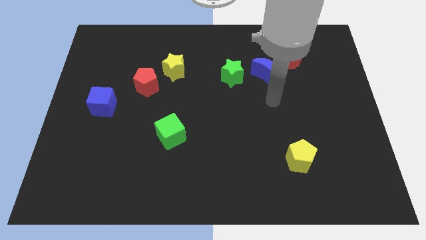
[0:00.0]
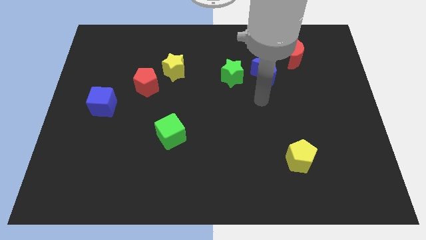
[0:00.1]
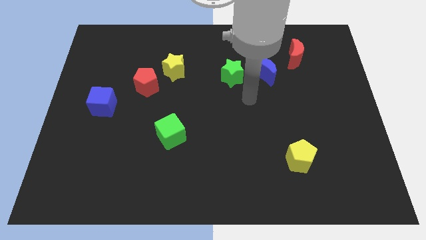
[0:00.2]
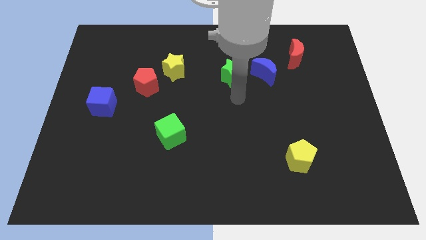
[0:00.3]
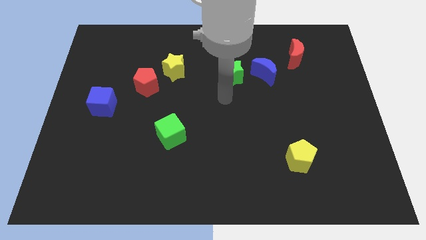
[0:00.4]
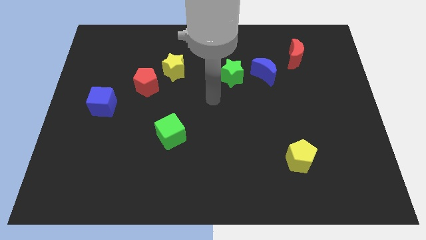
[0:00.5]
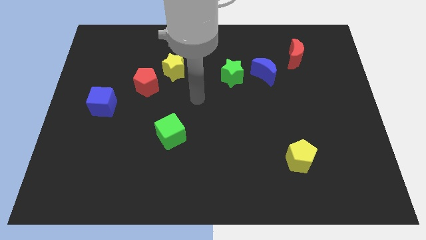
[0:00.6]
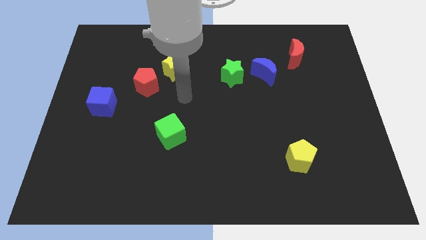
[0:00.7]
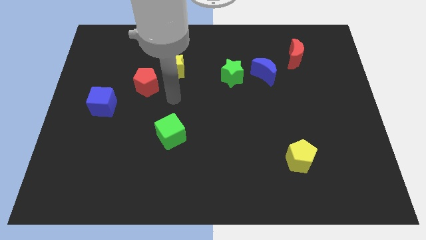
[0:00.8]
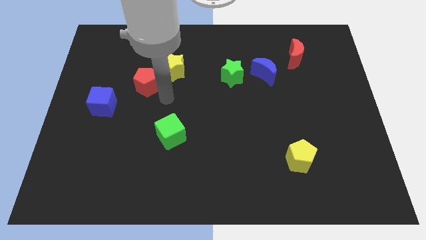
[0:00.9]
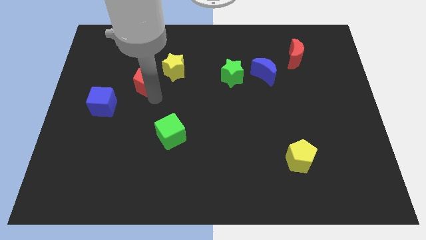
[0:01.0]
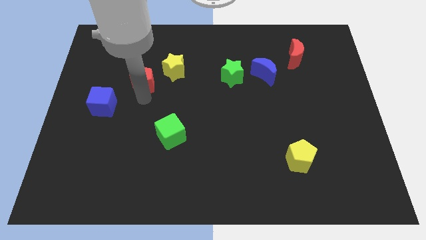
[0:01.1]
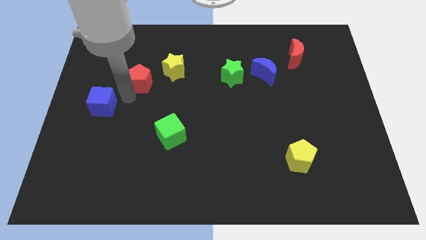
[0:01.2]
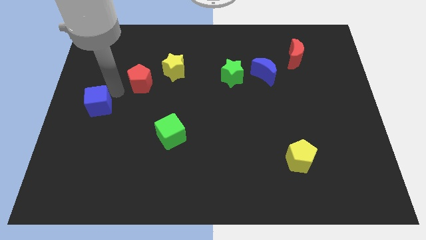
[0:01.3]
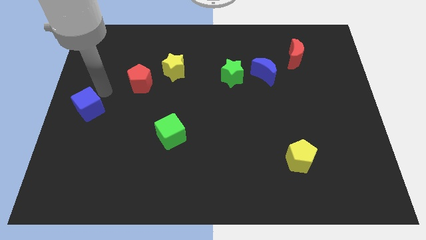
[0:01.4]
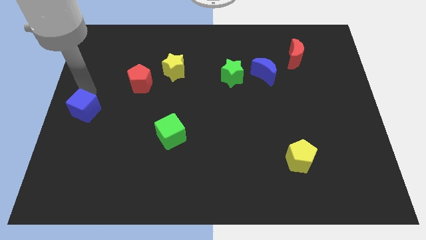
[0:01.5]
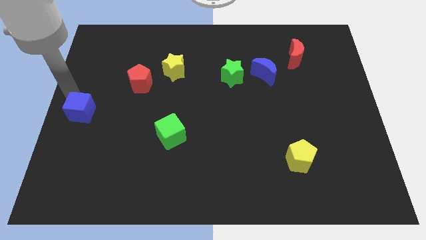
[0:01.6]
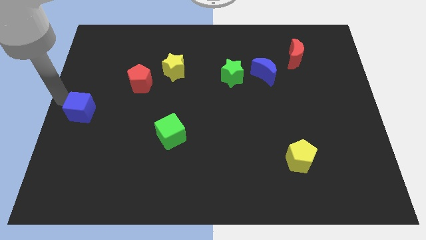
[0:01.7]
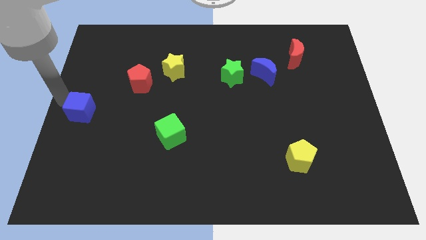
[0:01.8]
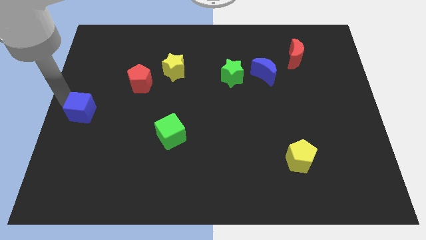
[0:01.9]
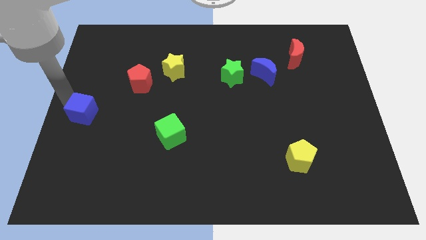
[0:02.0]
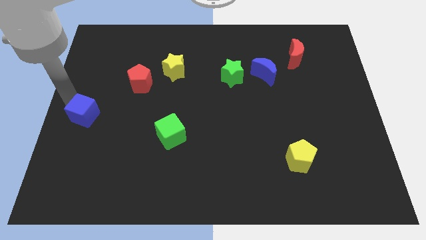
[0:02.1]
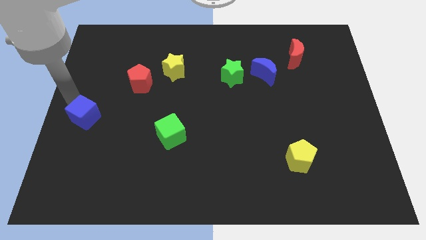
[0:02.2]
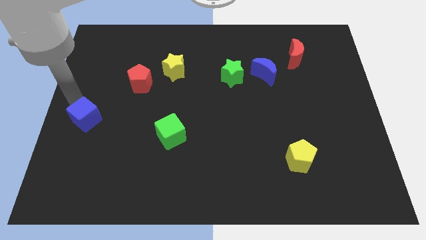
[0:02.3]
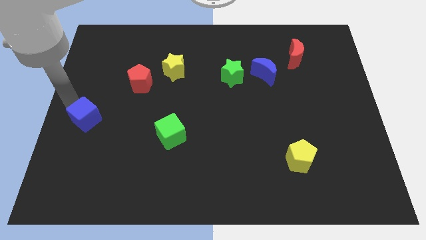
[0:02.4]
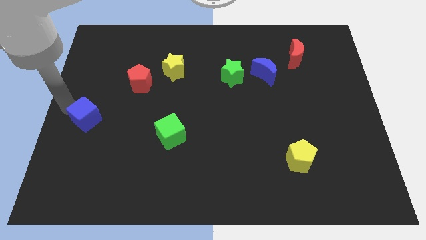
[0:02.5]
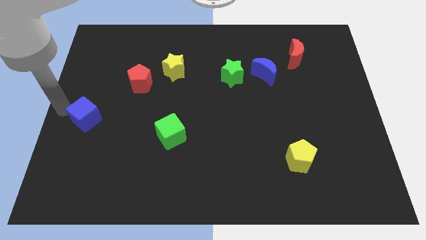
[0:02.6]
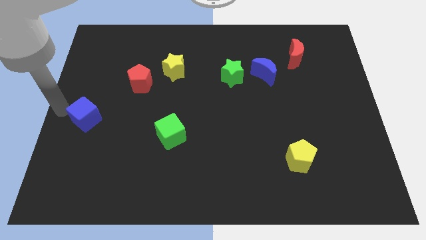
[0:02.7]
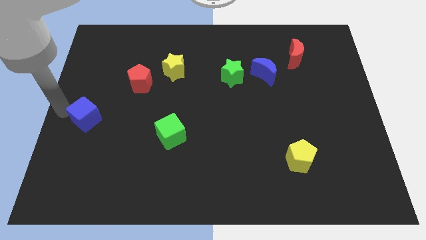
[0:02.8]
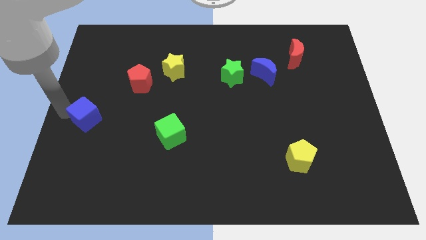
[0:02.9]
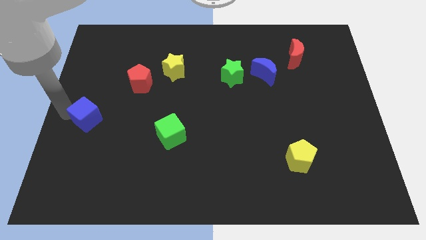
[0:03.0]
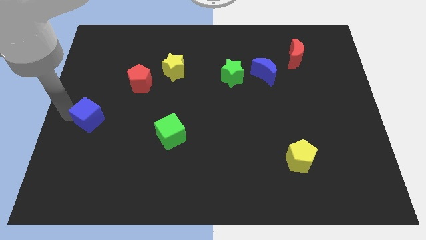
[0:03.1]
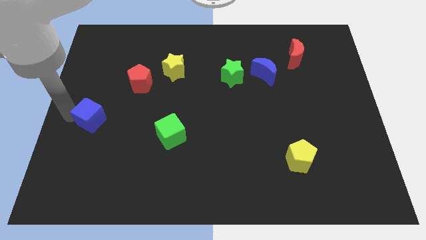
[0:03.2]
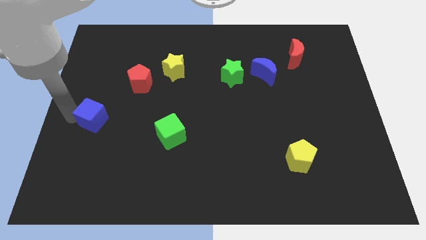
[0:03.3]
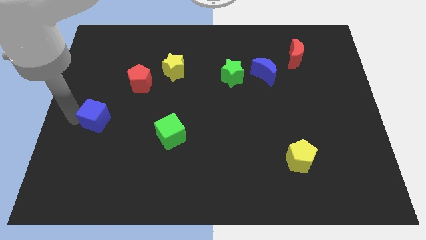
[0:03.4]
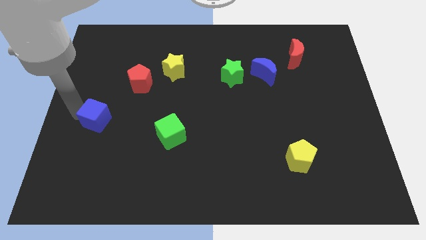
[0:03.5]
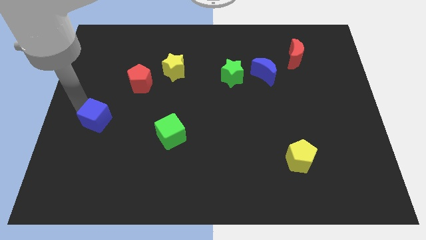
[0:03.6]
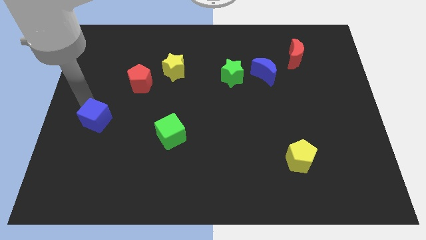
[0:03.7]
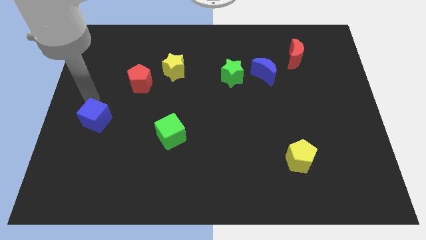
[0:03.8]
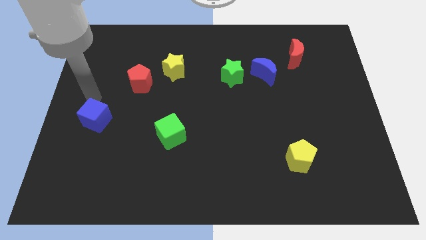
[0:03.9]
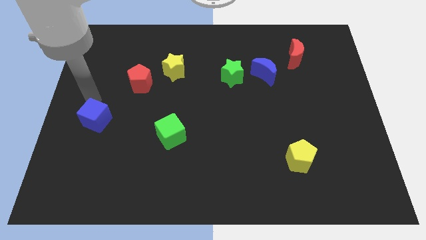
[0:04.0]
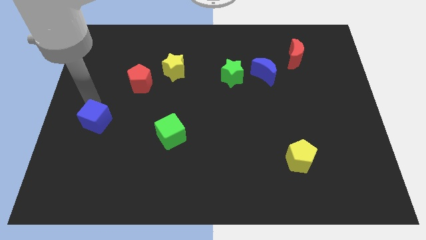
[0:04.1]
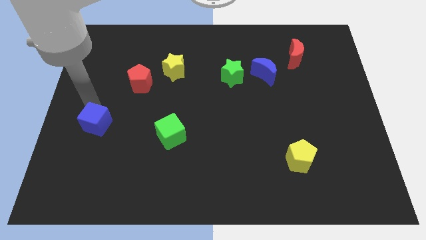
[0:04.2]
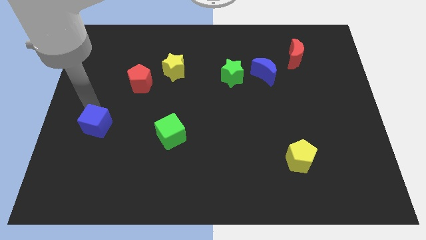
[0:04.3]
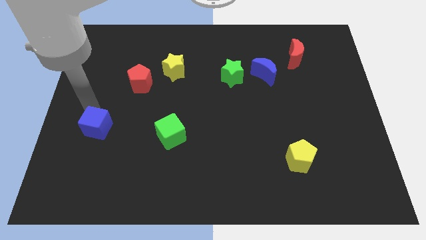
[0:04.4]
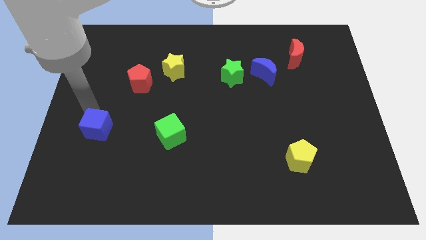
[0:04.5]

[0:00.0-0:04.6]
push the blue cube downwards a little bit

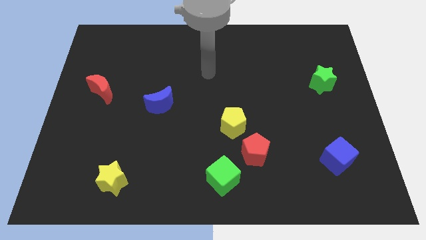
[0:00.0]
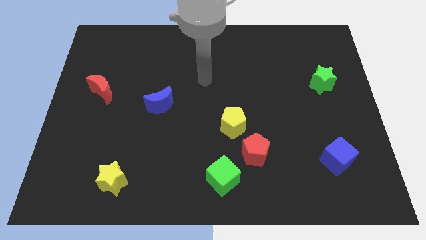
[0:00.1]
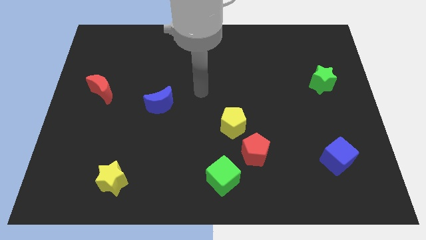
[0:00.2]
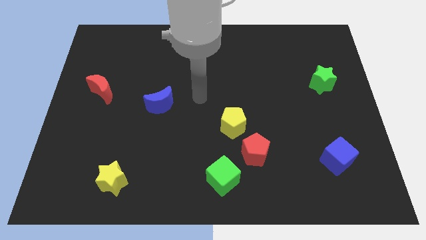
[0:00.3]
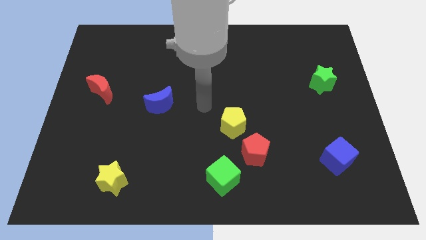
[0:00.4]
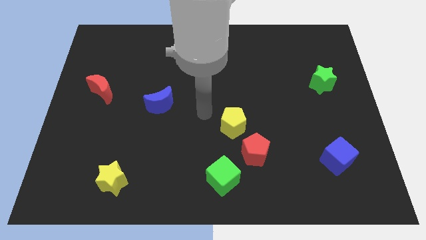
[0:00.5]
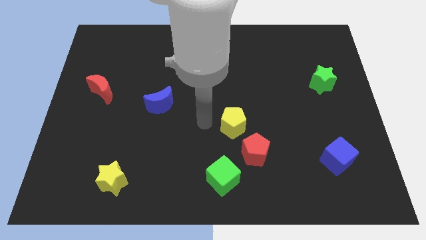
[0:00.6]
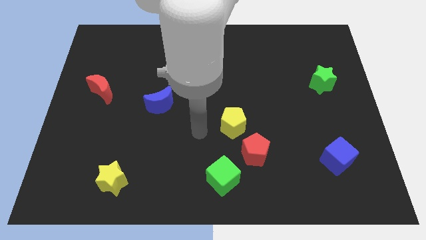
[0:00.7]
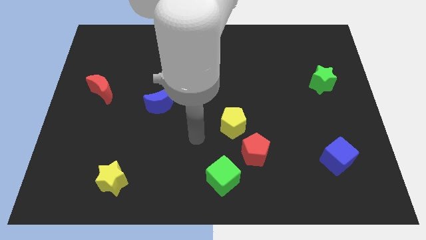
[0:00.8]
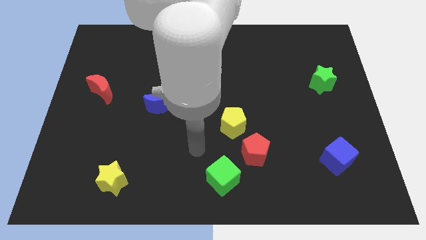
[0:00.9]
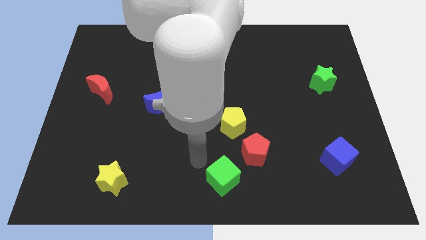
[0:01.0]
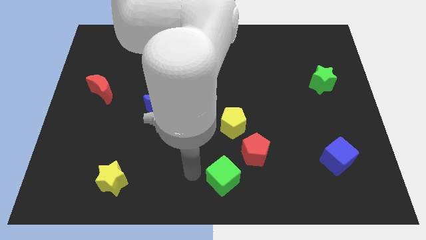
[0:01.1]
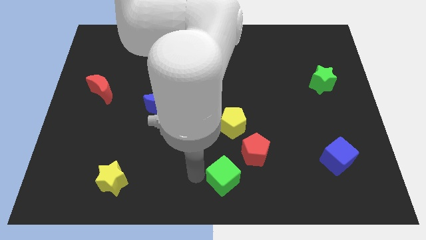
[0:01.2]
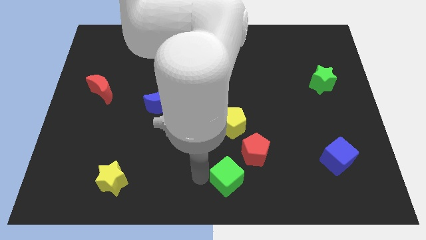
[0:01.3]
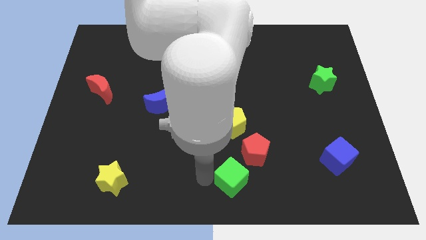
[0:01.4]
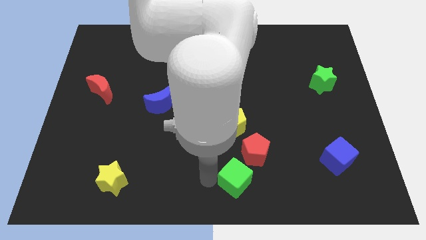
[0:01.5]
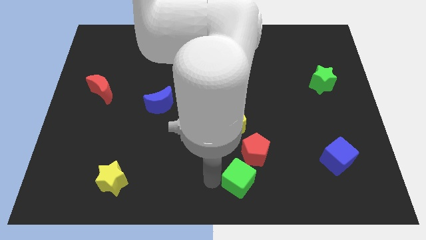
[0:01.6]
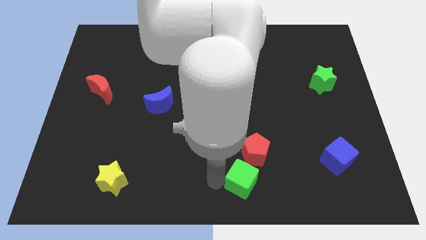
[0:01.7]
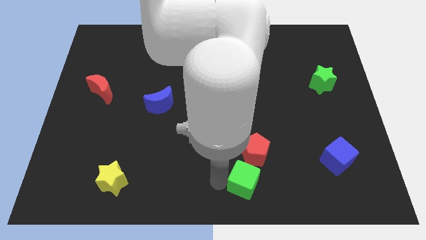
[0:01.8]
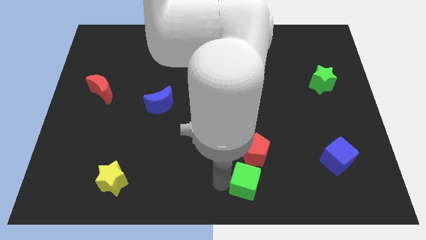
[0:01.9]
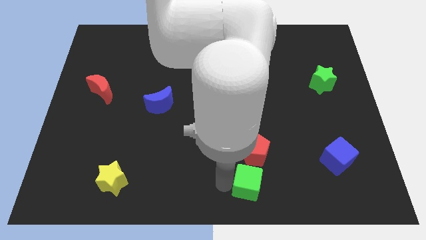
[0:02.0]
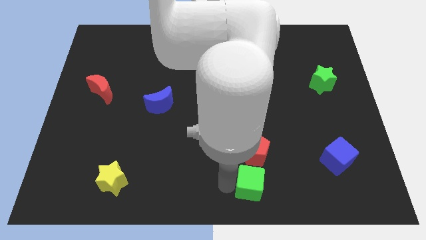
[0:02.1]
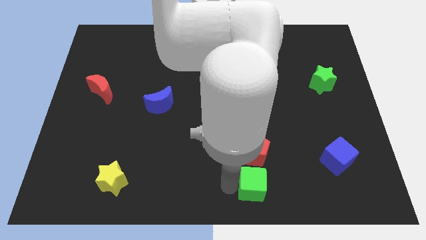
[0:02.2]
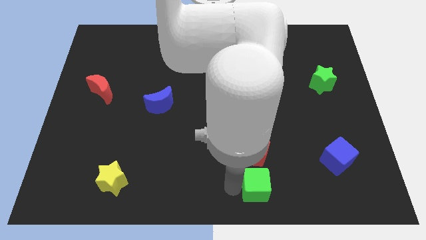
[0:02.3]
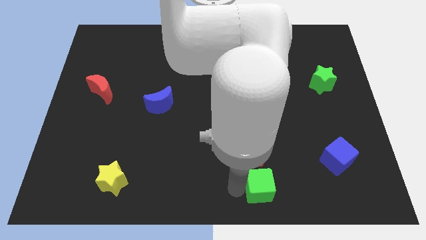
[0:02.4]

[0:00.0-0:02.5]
push the green cube to the right somewhat

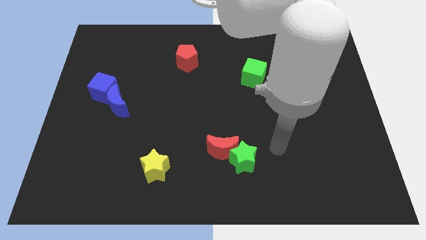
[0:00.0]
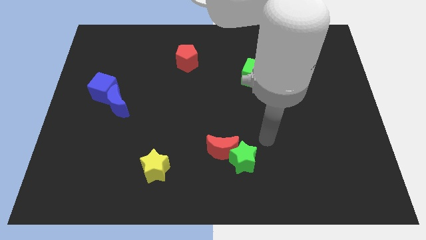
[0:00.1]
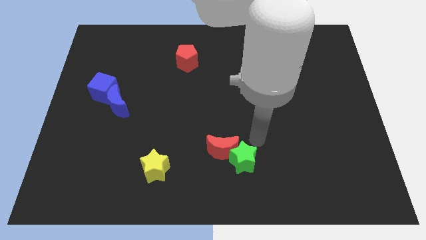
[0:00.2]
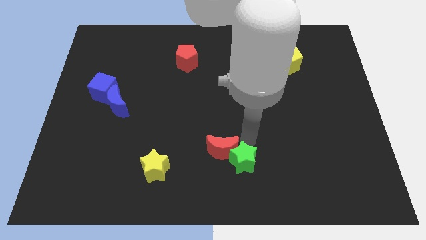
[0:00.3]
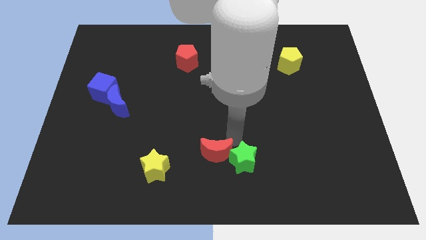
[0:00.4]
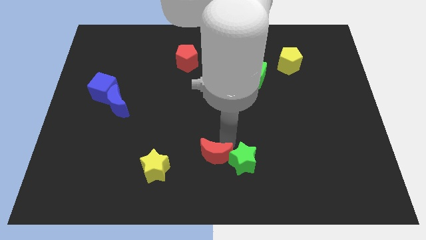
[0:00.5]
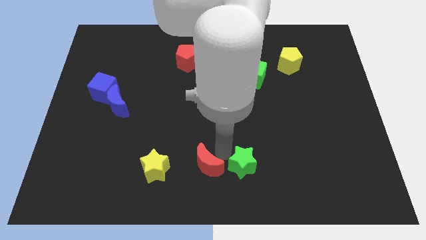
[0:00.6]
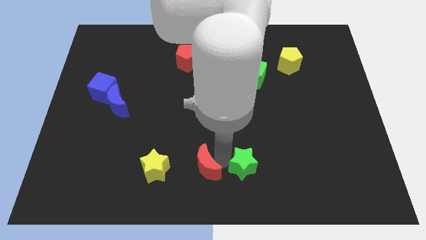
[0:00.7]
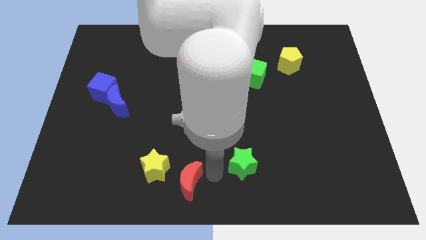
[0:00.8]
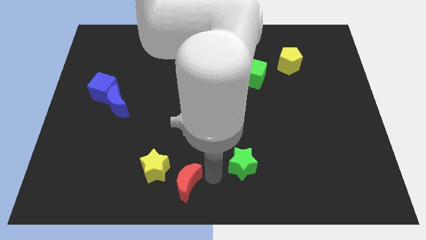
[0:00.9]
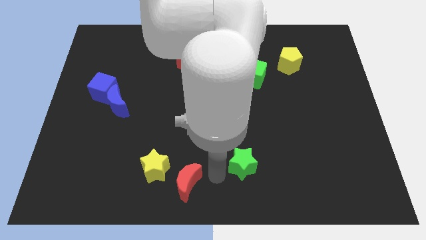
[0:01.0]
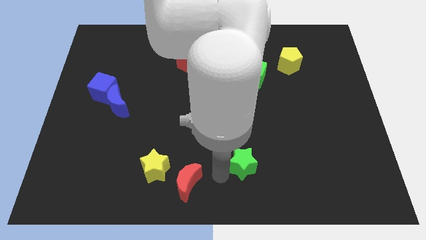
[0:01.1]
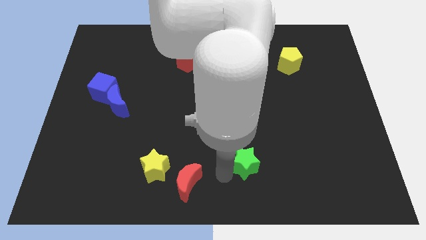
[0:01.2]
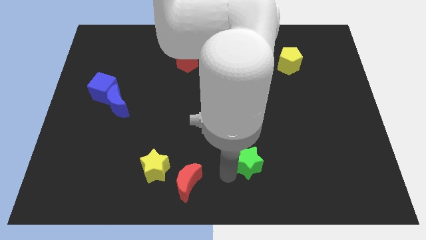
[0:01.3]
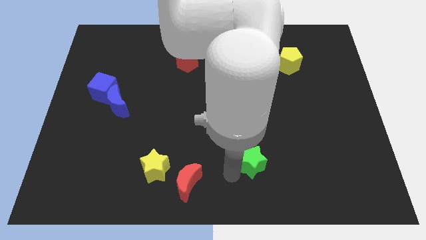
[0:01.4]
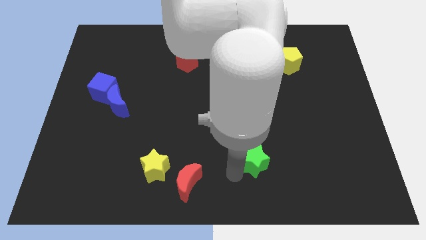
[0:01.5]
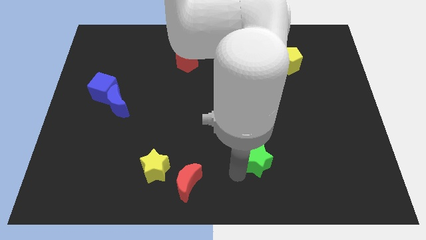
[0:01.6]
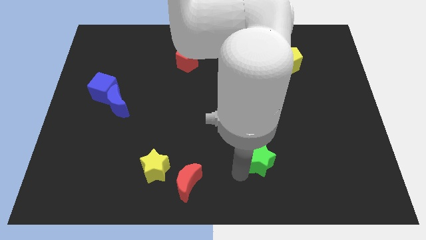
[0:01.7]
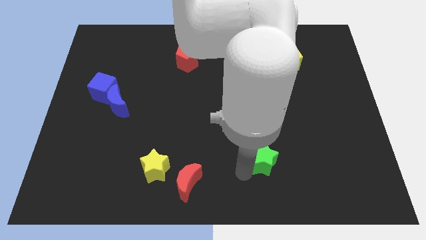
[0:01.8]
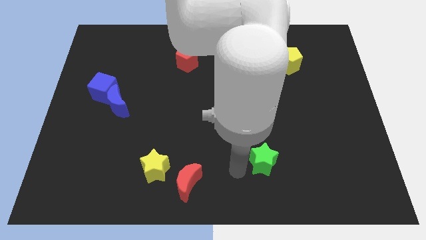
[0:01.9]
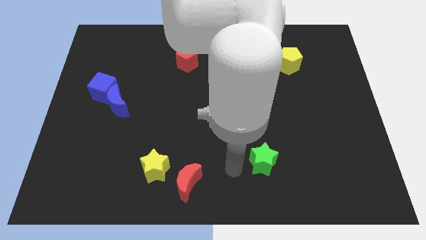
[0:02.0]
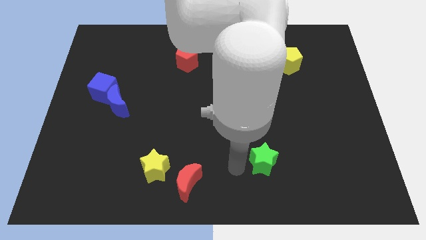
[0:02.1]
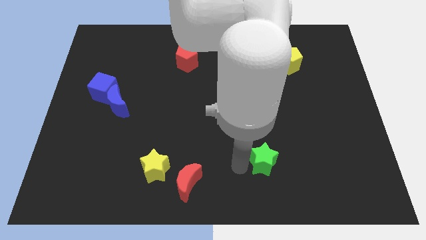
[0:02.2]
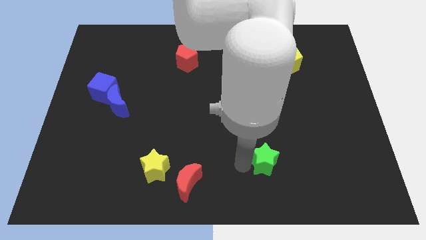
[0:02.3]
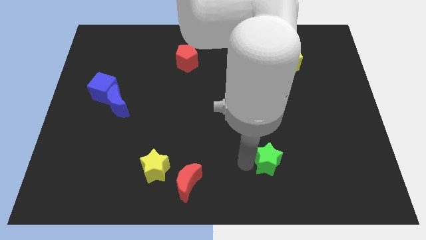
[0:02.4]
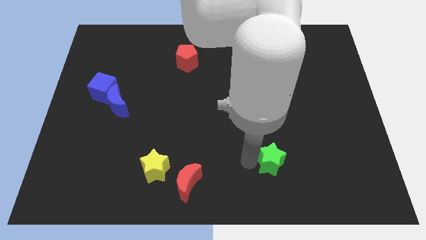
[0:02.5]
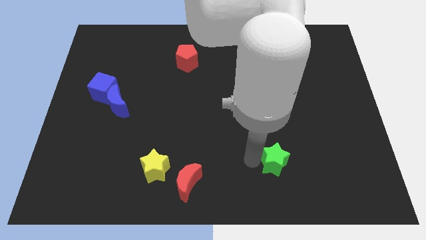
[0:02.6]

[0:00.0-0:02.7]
slightly slide the green star right
